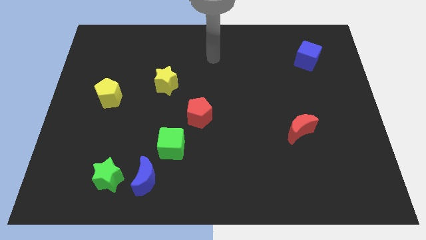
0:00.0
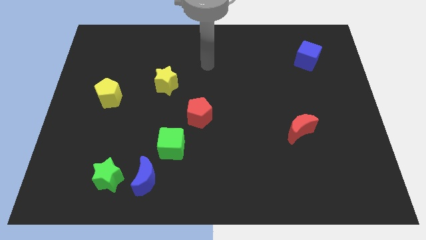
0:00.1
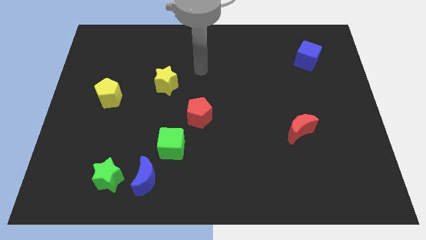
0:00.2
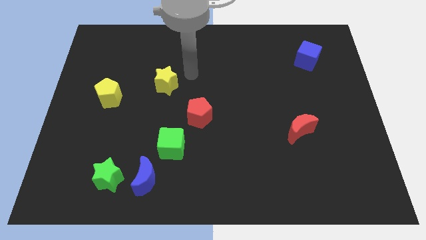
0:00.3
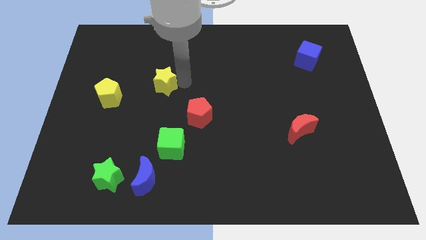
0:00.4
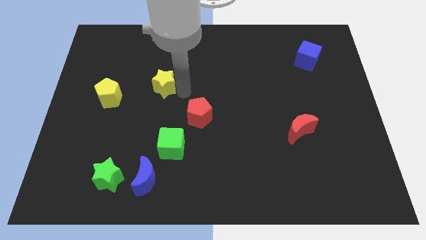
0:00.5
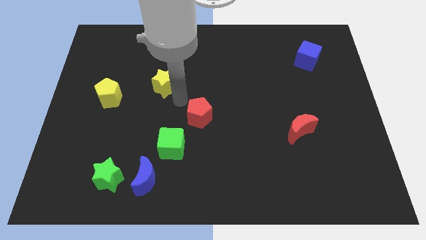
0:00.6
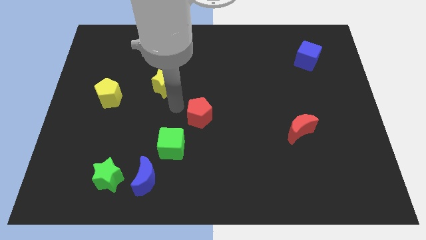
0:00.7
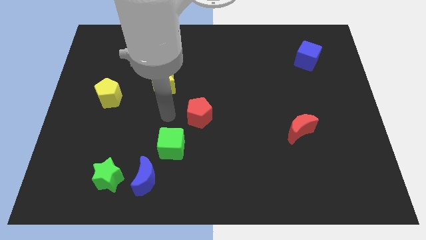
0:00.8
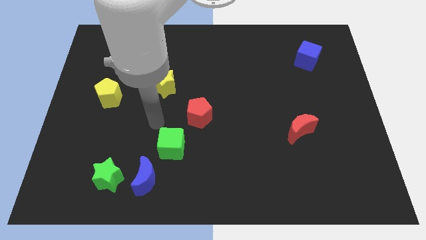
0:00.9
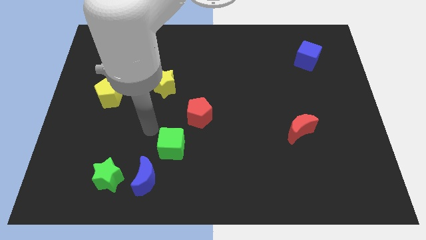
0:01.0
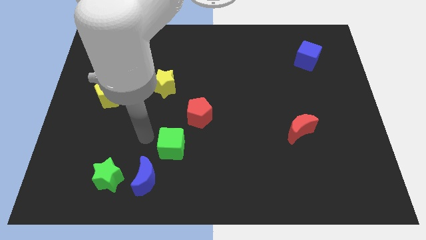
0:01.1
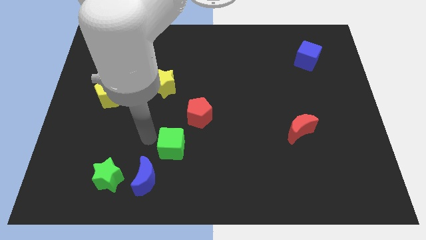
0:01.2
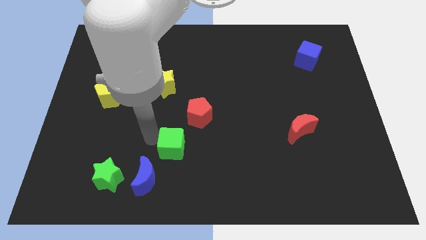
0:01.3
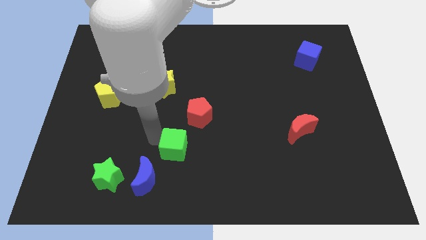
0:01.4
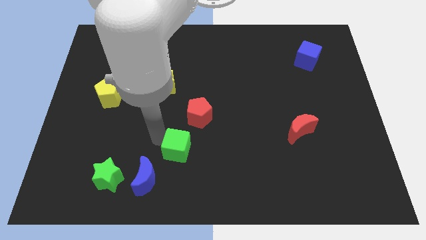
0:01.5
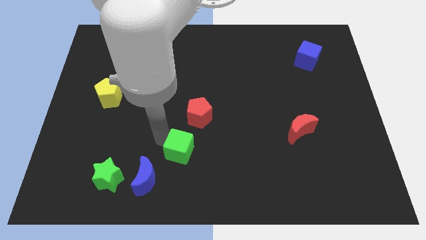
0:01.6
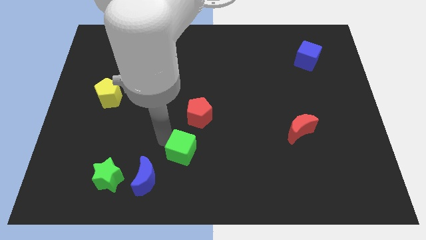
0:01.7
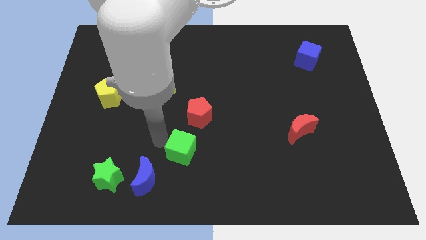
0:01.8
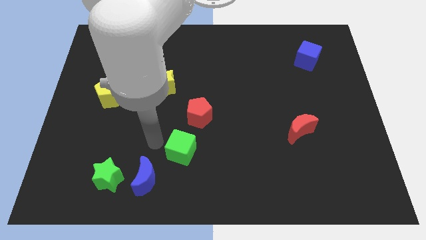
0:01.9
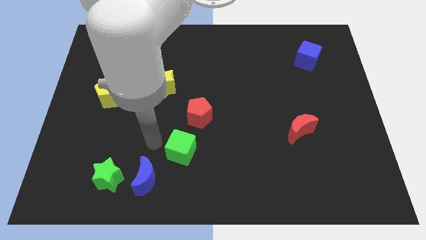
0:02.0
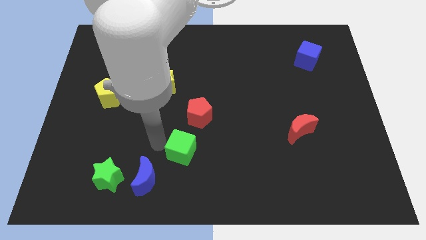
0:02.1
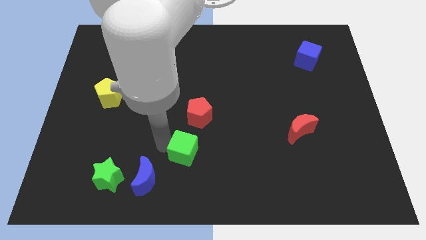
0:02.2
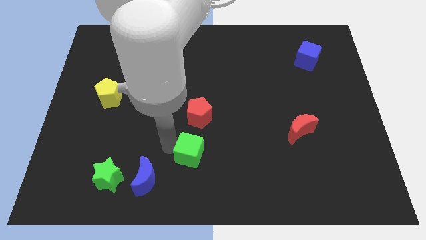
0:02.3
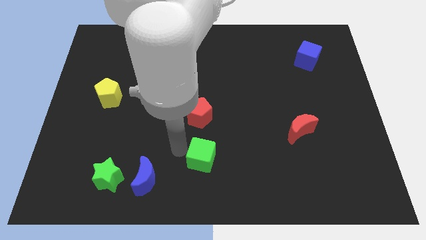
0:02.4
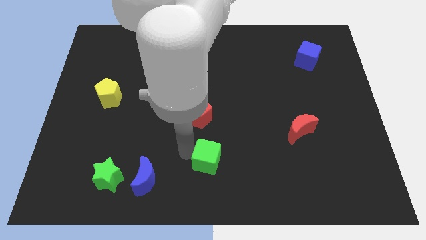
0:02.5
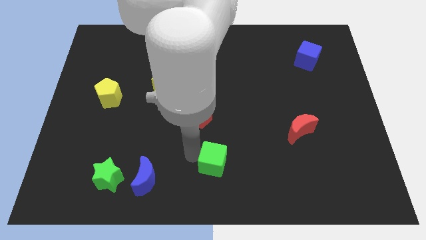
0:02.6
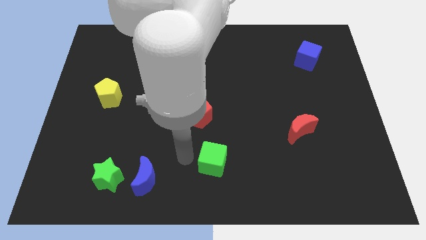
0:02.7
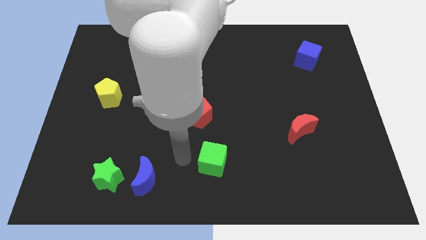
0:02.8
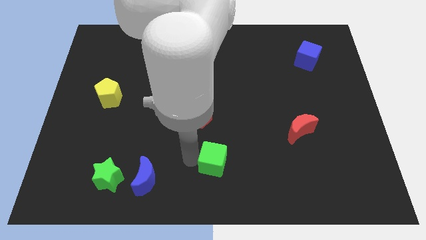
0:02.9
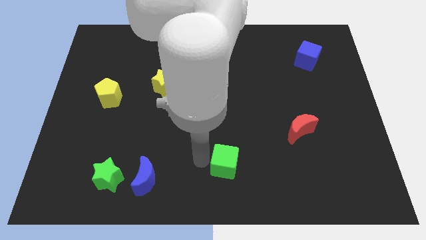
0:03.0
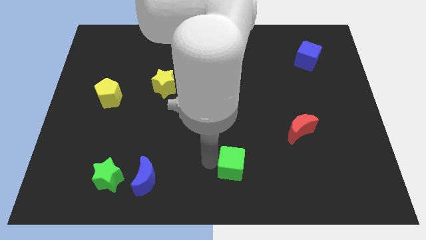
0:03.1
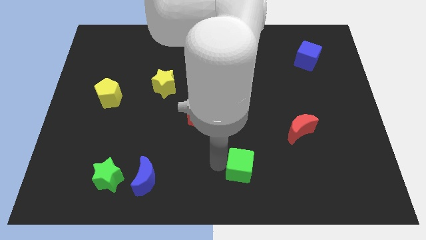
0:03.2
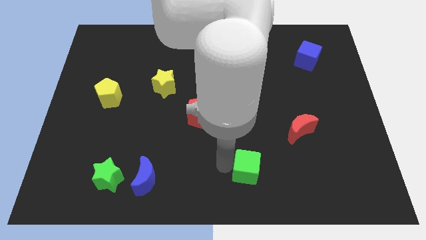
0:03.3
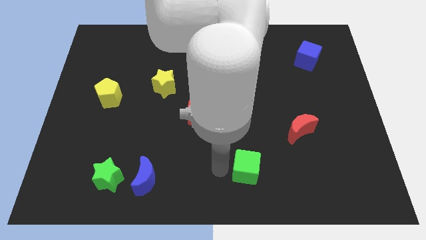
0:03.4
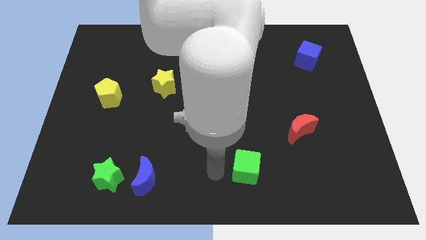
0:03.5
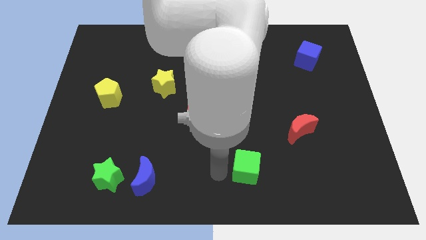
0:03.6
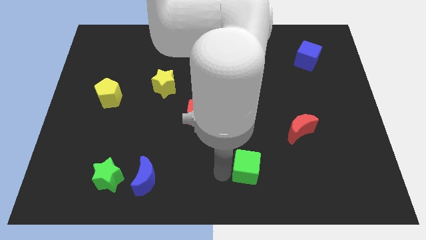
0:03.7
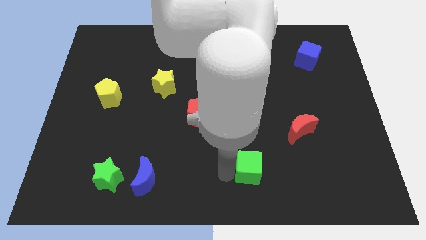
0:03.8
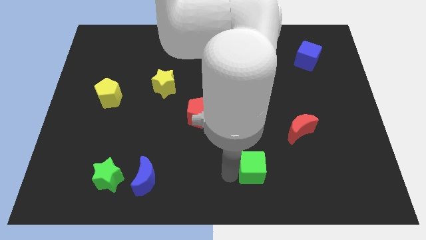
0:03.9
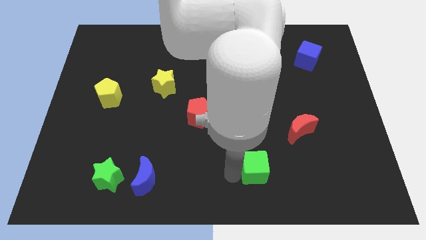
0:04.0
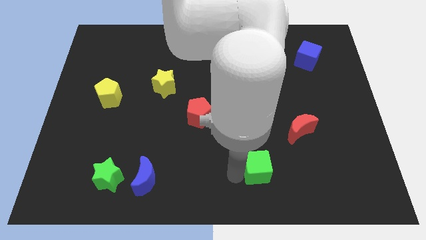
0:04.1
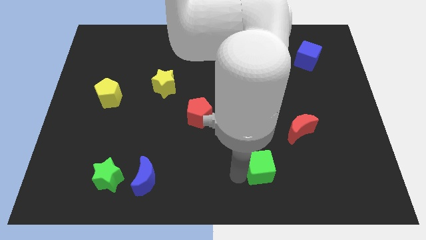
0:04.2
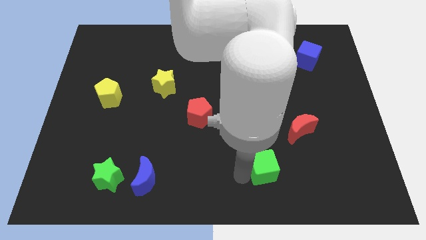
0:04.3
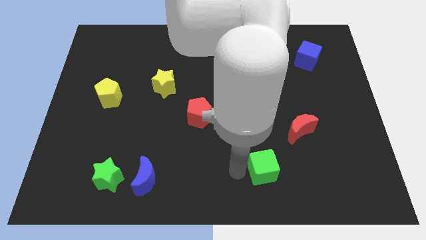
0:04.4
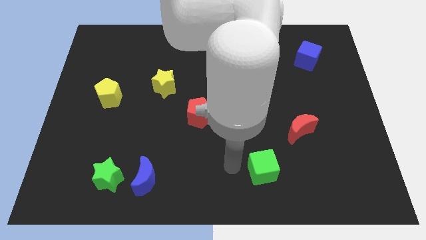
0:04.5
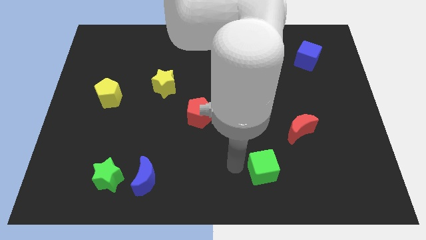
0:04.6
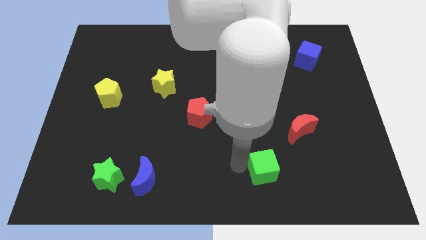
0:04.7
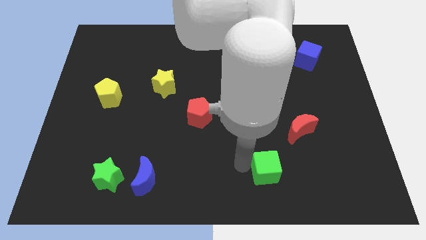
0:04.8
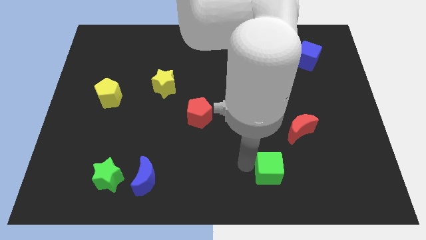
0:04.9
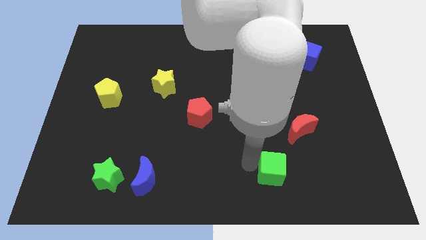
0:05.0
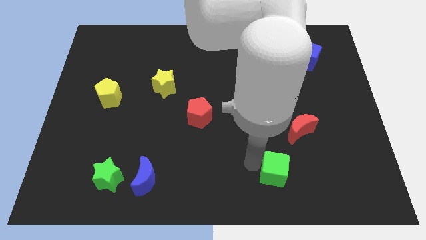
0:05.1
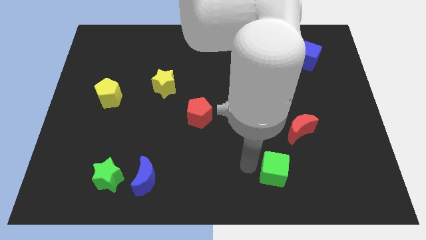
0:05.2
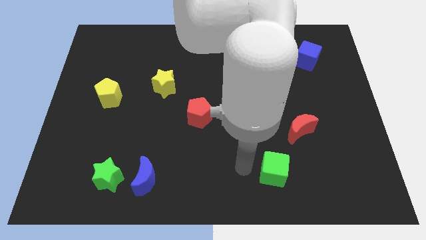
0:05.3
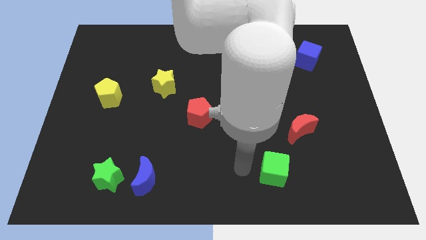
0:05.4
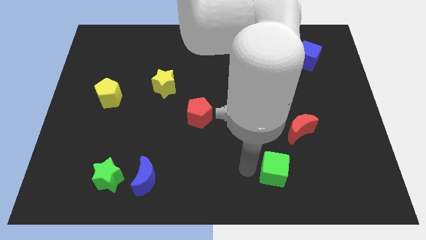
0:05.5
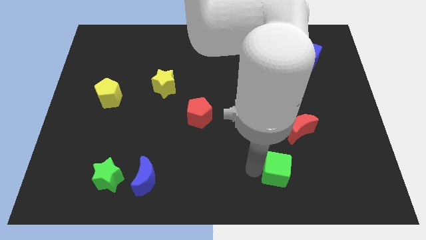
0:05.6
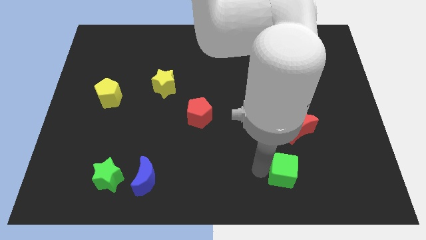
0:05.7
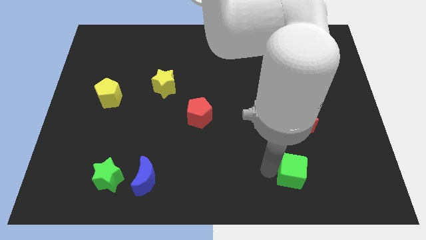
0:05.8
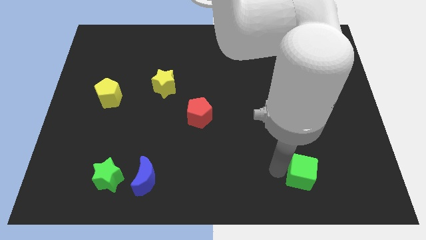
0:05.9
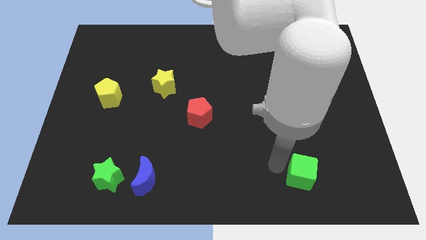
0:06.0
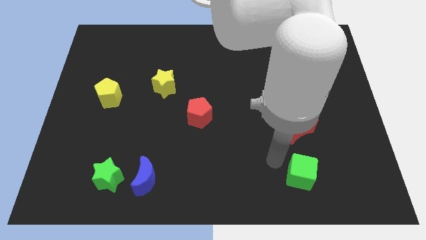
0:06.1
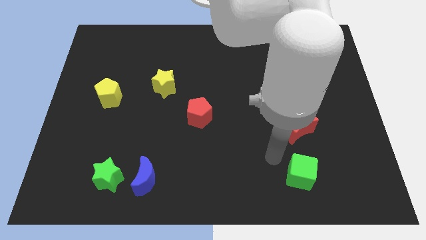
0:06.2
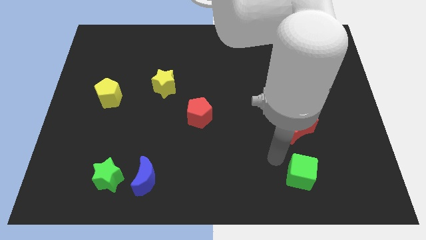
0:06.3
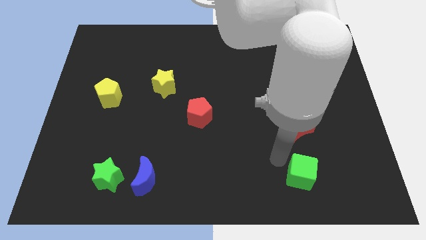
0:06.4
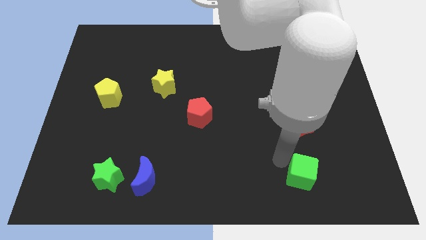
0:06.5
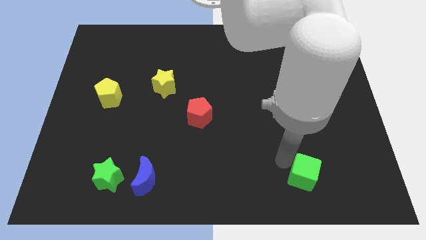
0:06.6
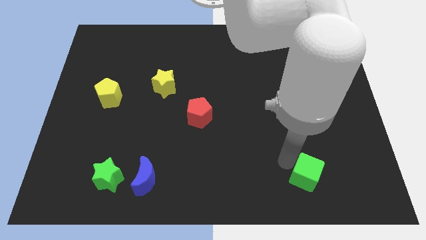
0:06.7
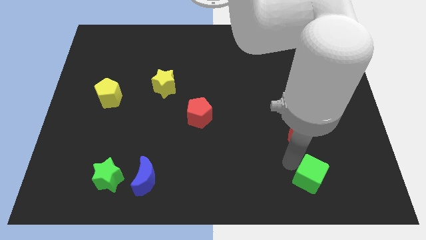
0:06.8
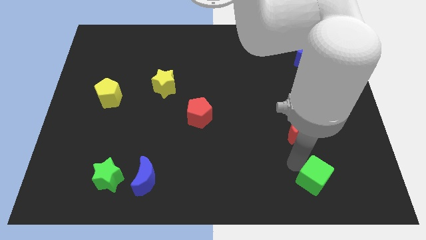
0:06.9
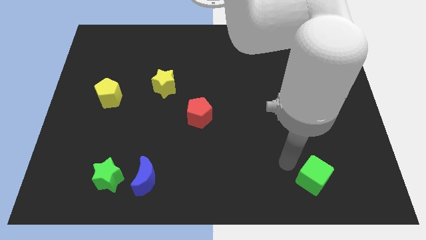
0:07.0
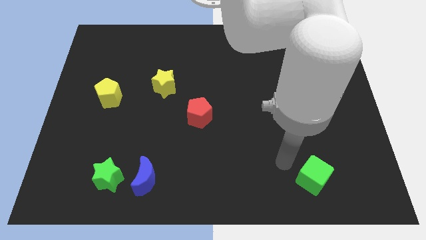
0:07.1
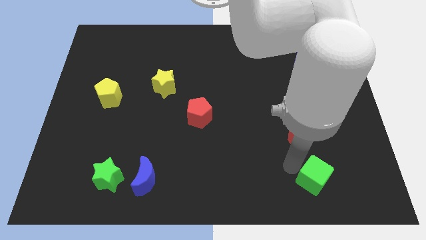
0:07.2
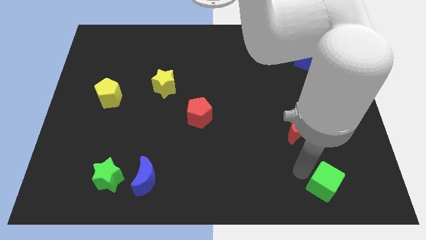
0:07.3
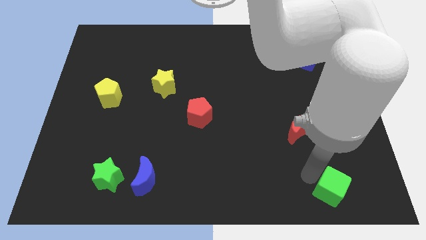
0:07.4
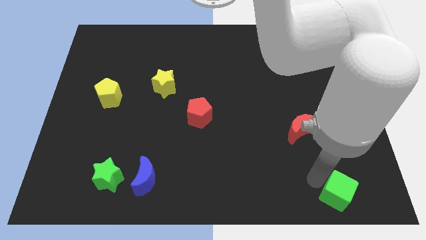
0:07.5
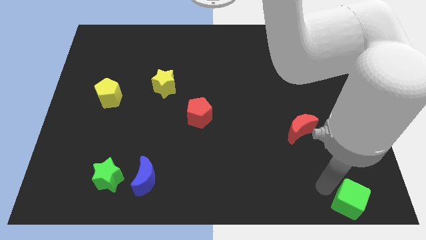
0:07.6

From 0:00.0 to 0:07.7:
move the green cube to the bottom right corner
